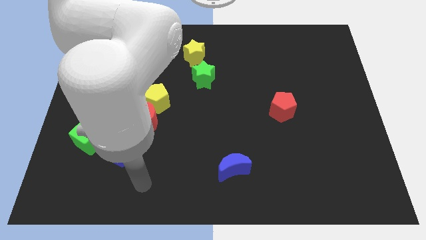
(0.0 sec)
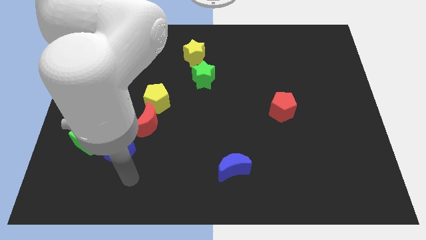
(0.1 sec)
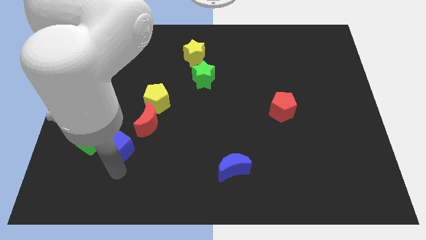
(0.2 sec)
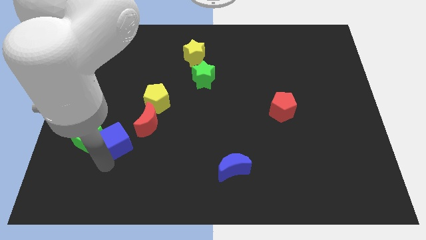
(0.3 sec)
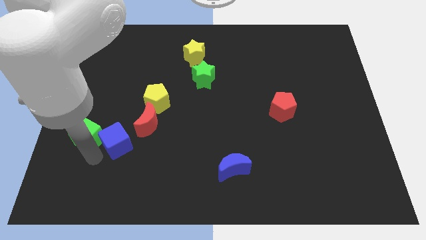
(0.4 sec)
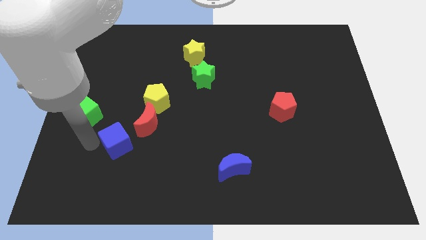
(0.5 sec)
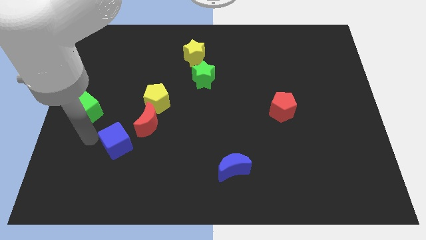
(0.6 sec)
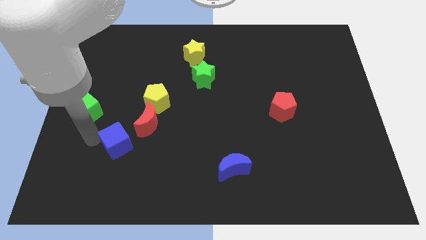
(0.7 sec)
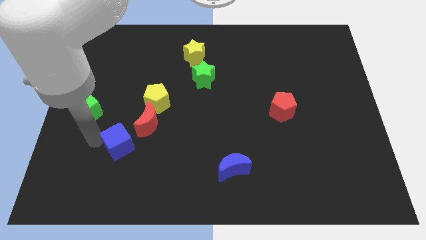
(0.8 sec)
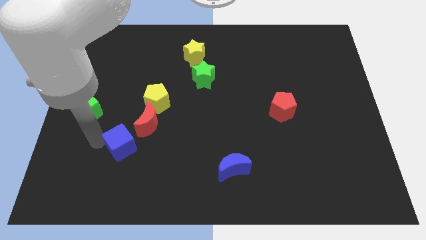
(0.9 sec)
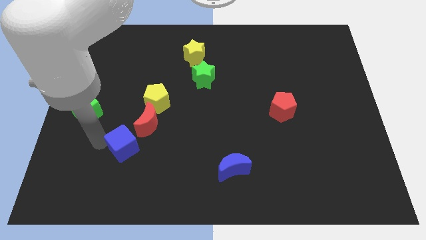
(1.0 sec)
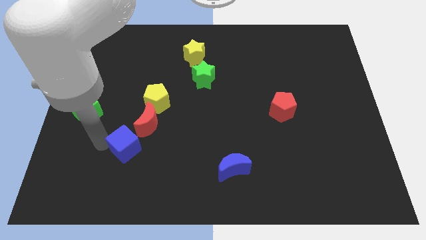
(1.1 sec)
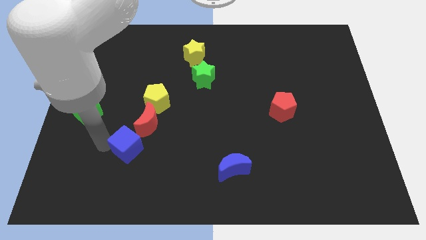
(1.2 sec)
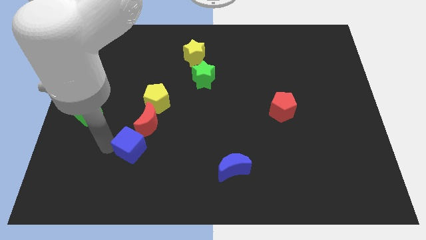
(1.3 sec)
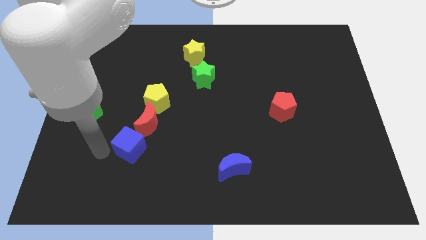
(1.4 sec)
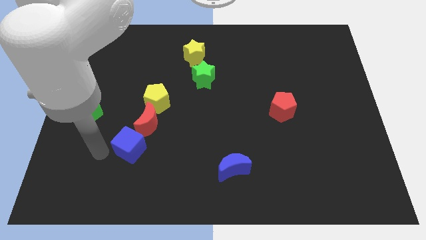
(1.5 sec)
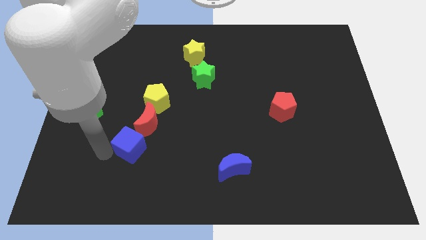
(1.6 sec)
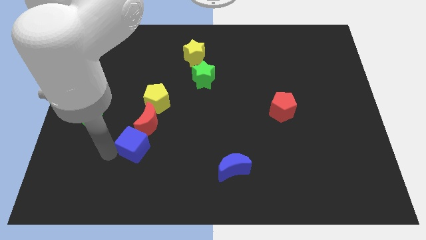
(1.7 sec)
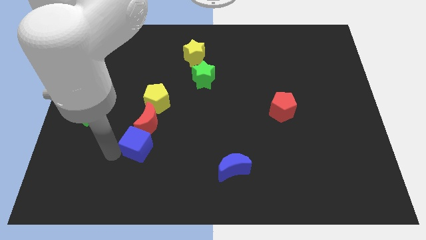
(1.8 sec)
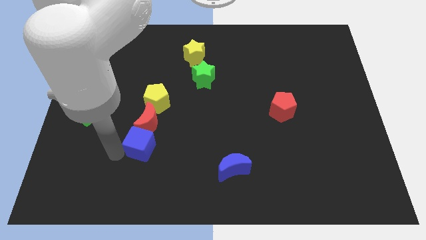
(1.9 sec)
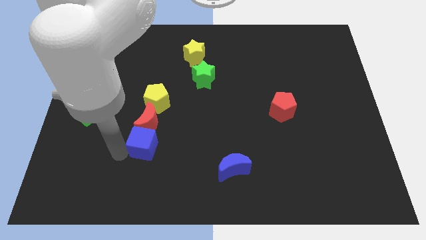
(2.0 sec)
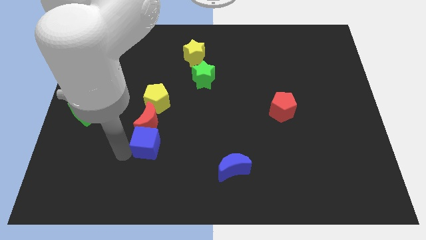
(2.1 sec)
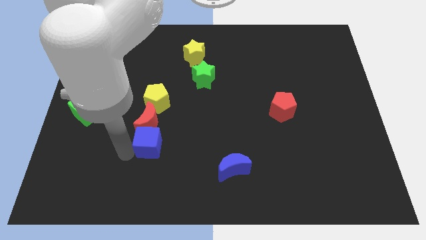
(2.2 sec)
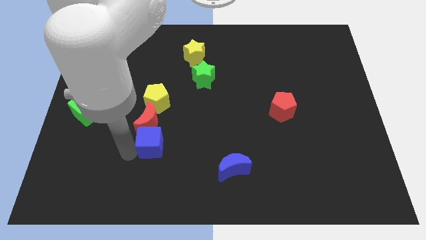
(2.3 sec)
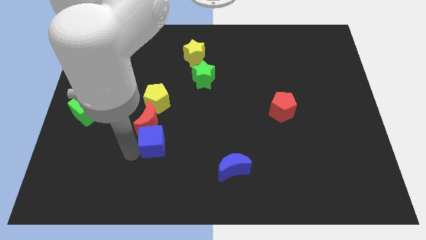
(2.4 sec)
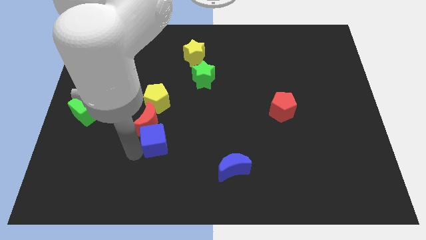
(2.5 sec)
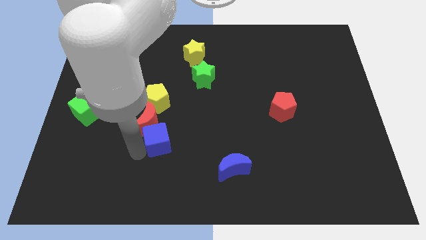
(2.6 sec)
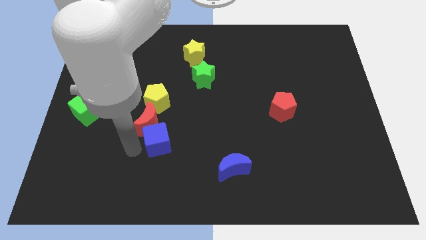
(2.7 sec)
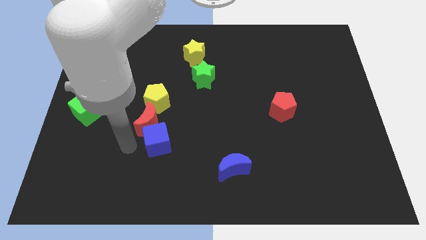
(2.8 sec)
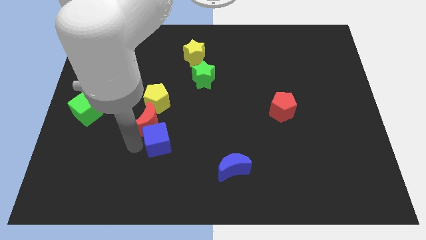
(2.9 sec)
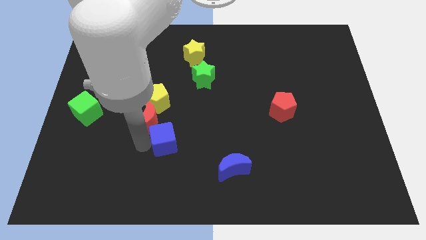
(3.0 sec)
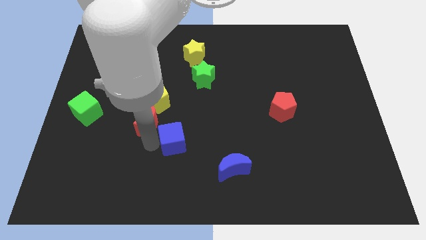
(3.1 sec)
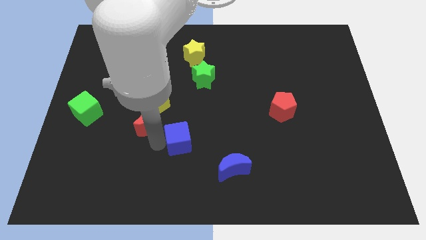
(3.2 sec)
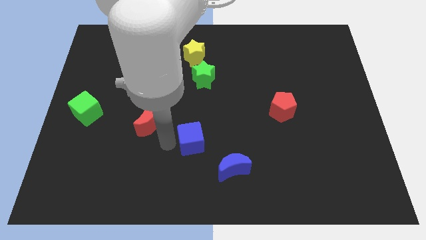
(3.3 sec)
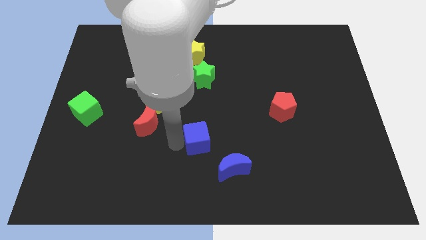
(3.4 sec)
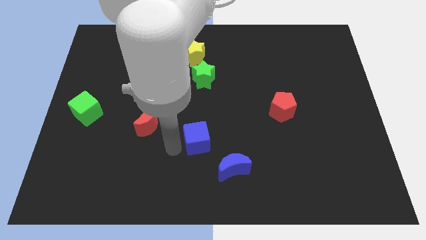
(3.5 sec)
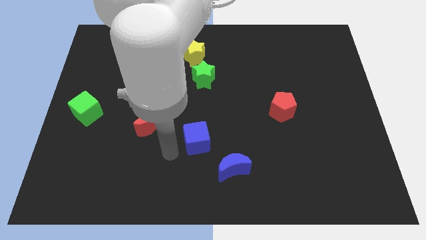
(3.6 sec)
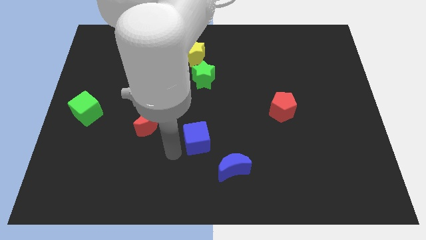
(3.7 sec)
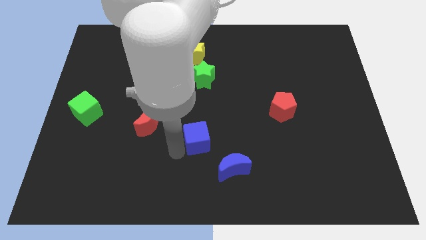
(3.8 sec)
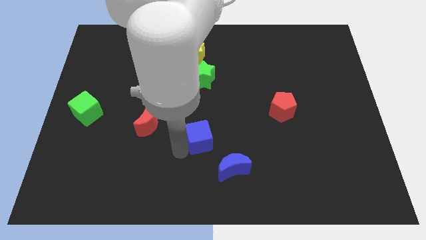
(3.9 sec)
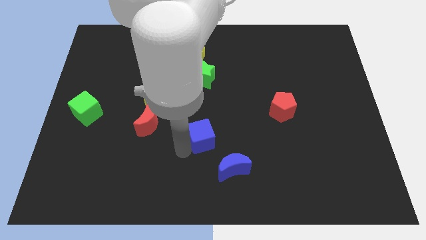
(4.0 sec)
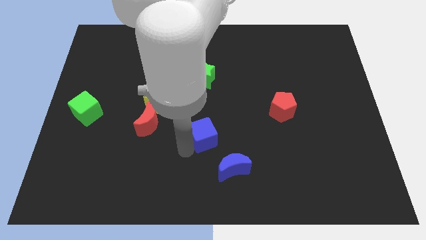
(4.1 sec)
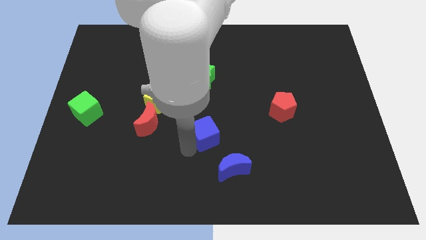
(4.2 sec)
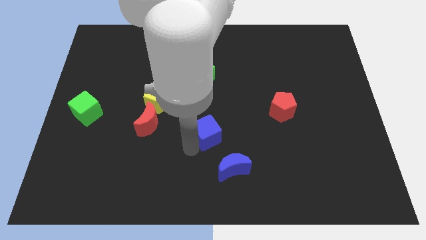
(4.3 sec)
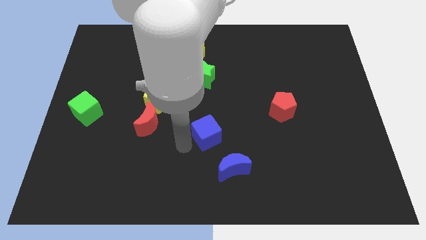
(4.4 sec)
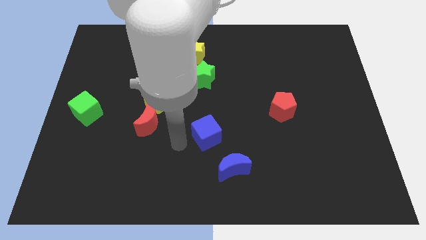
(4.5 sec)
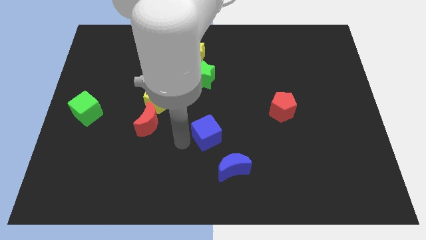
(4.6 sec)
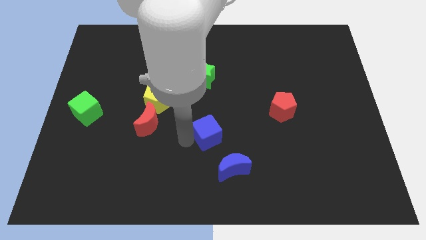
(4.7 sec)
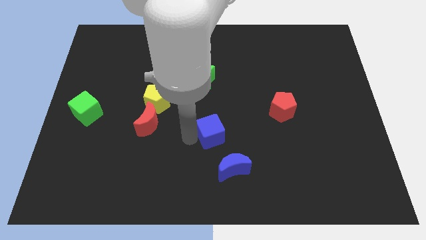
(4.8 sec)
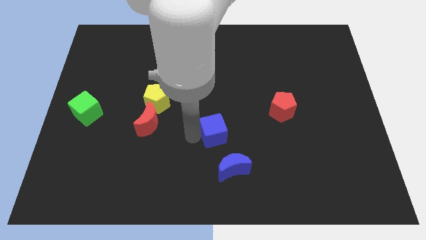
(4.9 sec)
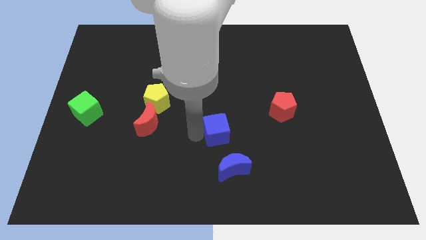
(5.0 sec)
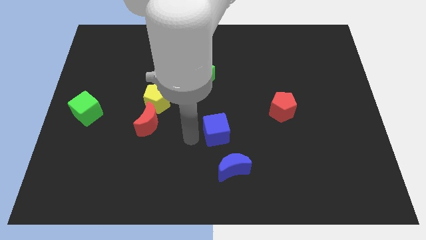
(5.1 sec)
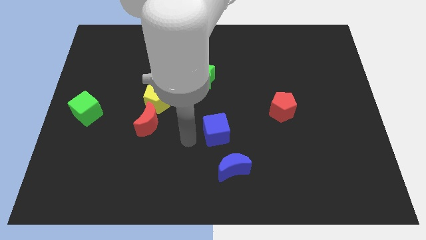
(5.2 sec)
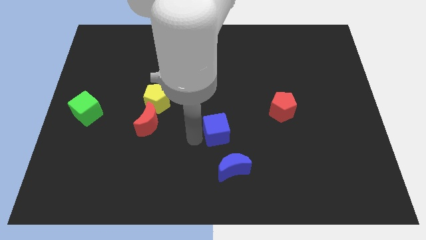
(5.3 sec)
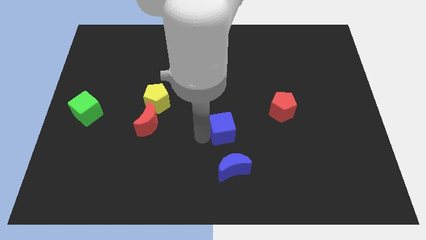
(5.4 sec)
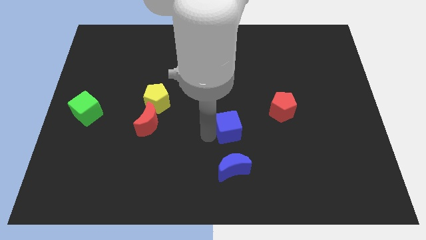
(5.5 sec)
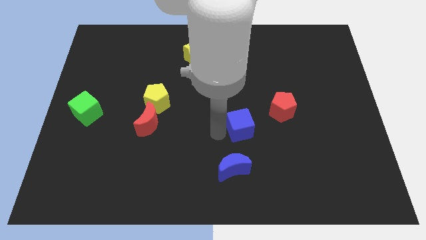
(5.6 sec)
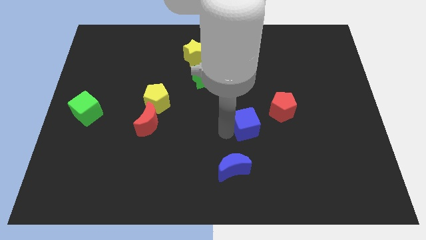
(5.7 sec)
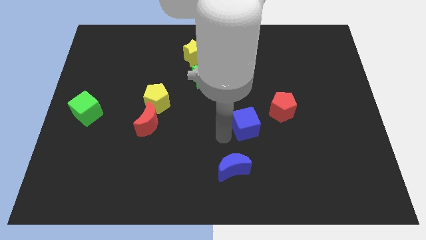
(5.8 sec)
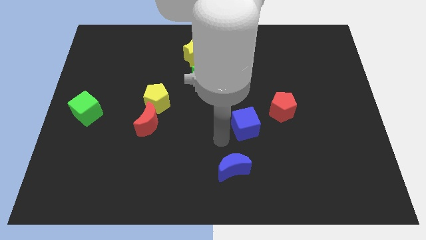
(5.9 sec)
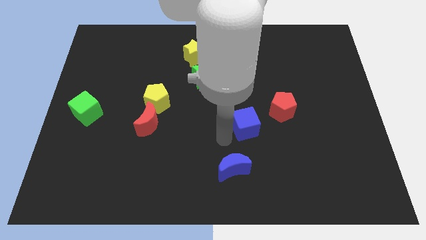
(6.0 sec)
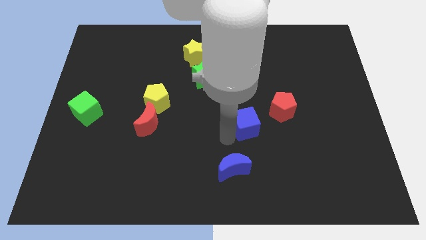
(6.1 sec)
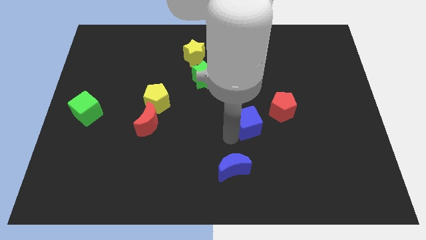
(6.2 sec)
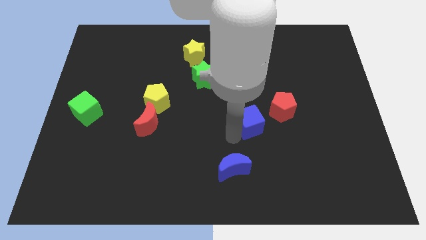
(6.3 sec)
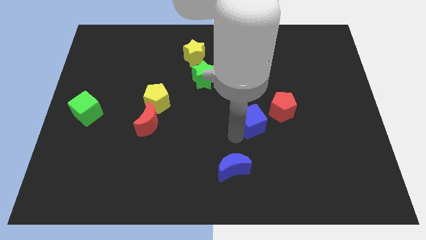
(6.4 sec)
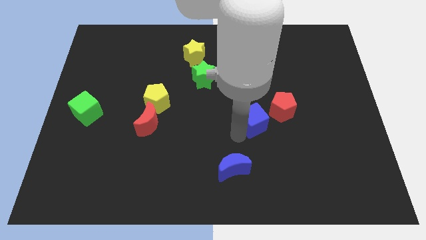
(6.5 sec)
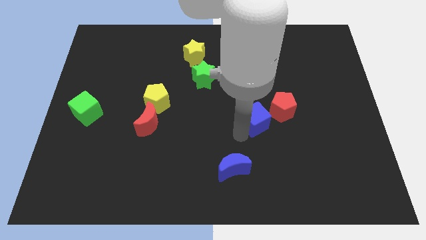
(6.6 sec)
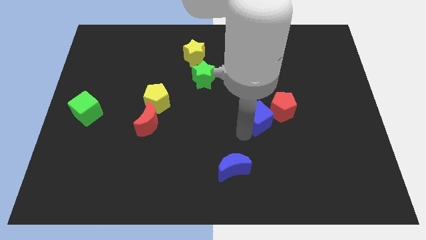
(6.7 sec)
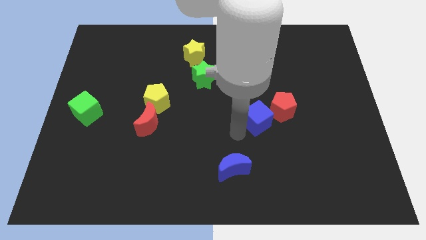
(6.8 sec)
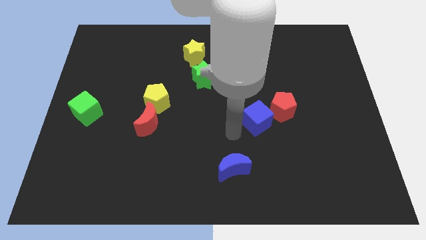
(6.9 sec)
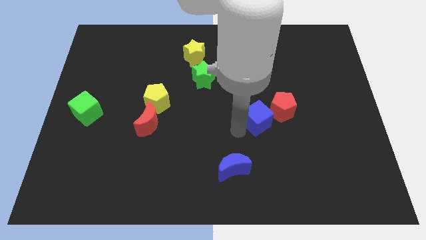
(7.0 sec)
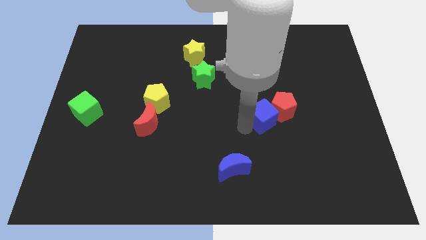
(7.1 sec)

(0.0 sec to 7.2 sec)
put the blue cube next to the red pentagon
